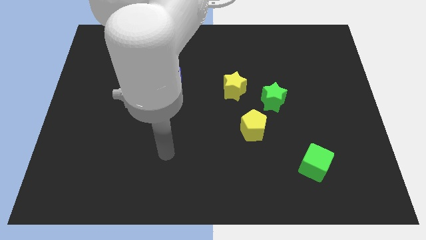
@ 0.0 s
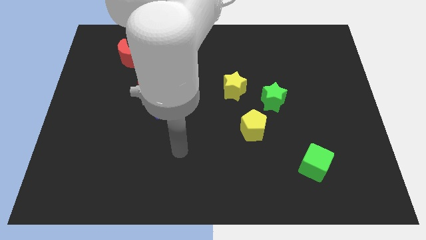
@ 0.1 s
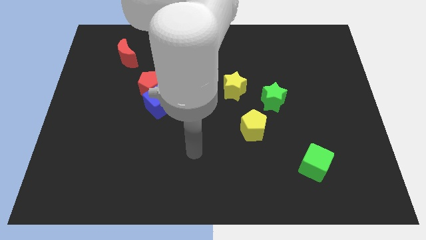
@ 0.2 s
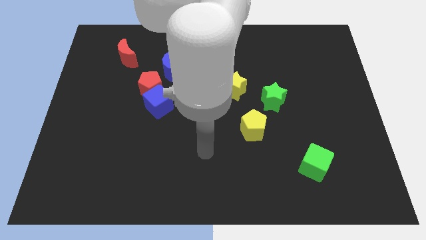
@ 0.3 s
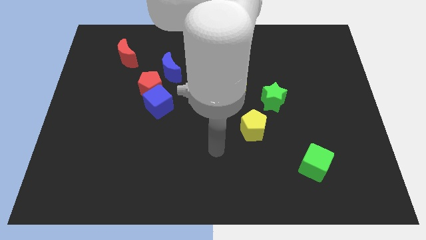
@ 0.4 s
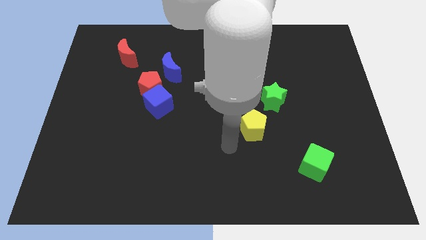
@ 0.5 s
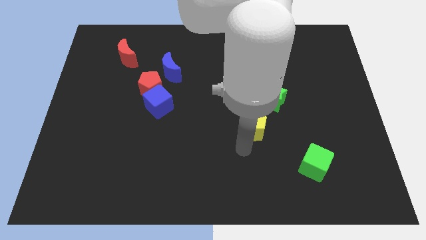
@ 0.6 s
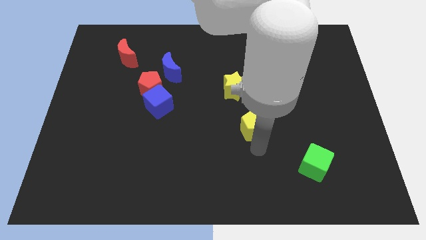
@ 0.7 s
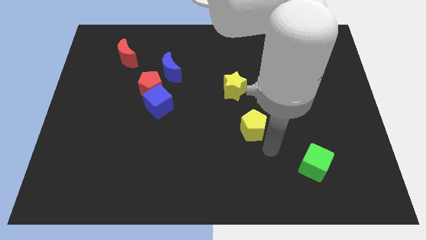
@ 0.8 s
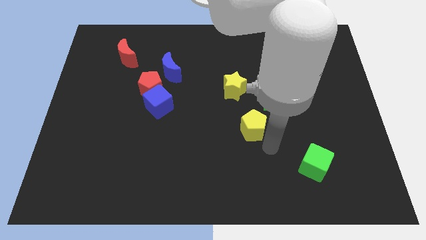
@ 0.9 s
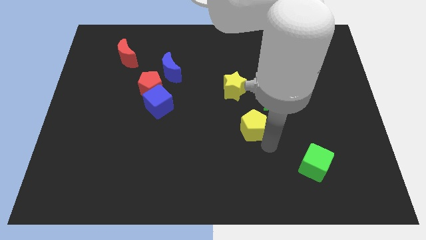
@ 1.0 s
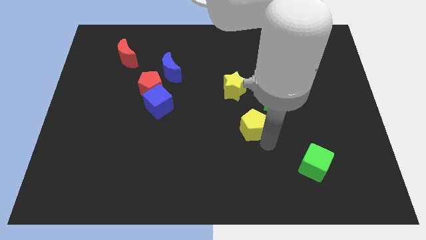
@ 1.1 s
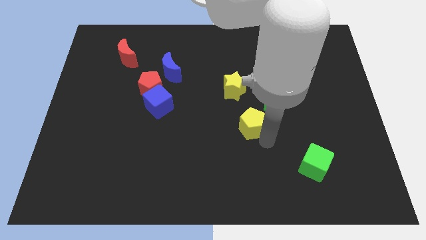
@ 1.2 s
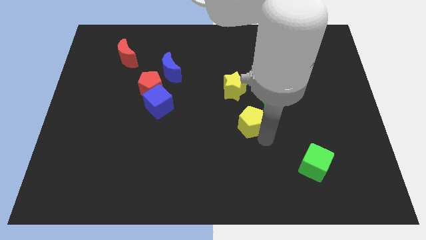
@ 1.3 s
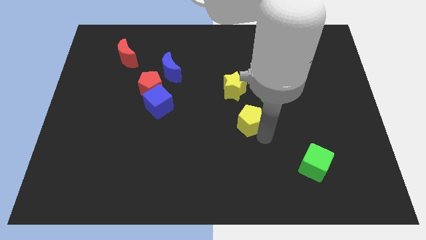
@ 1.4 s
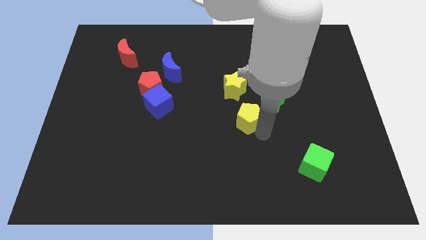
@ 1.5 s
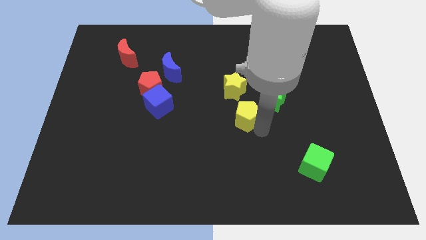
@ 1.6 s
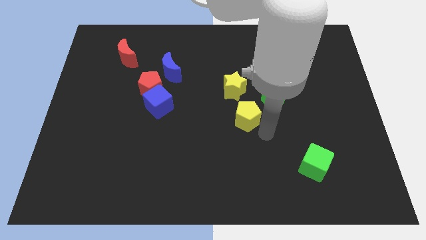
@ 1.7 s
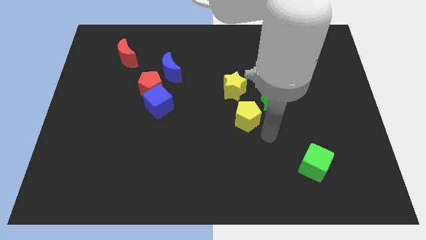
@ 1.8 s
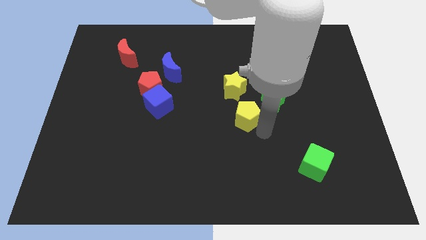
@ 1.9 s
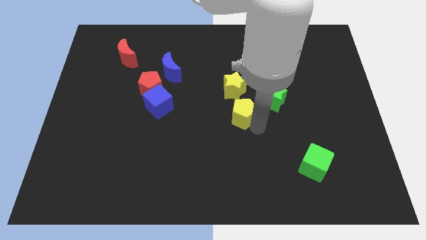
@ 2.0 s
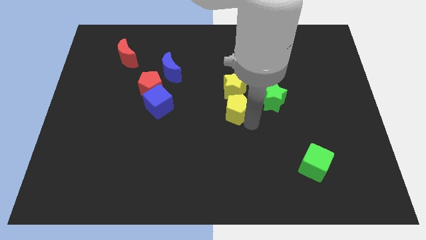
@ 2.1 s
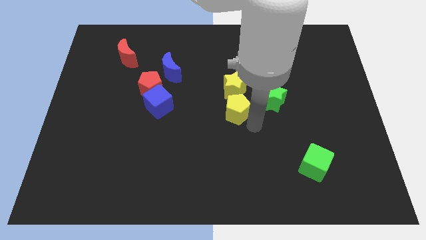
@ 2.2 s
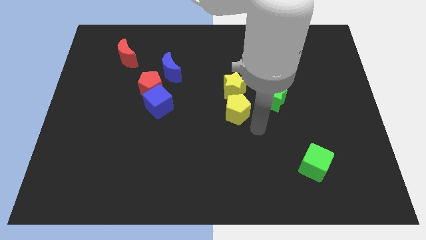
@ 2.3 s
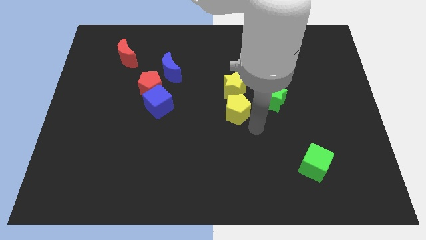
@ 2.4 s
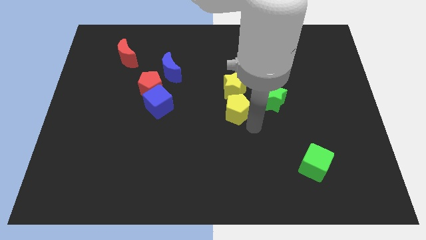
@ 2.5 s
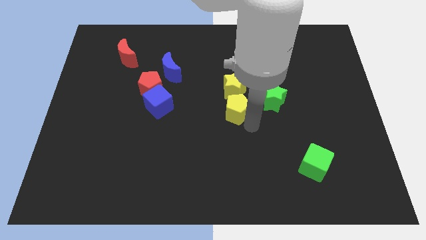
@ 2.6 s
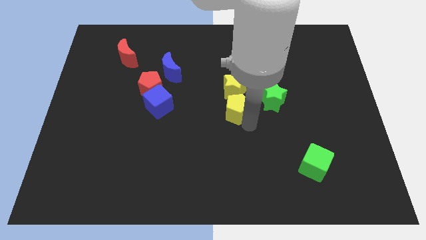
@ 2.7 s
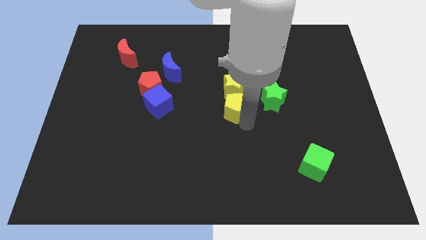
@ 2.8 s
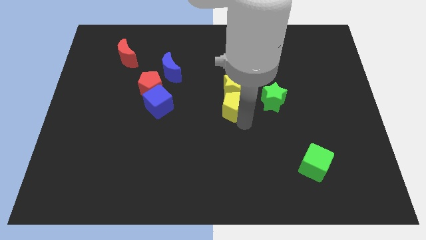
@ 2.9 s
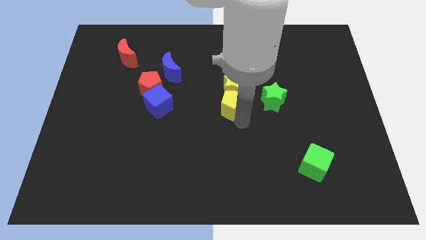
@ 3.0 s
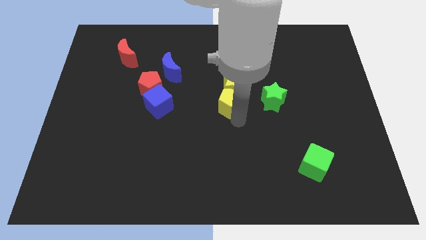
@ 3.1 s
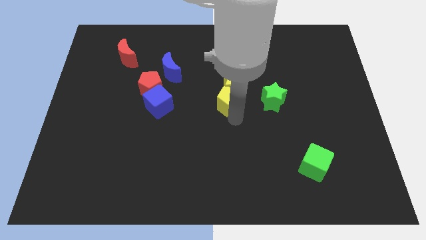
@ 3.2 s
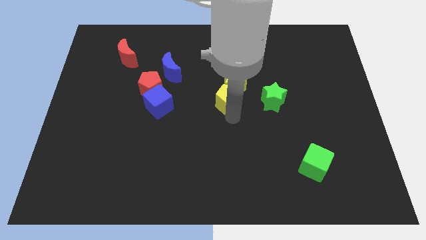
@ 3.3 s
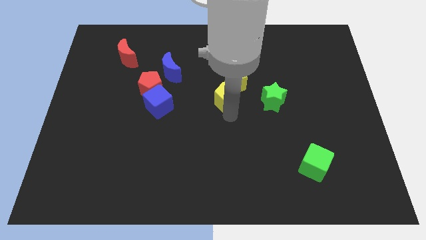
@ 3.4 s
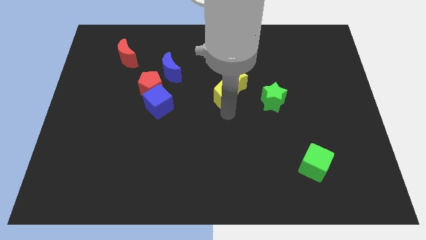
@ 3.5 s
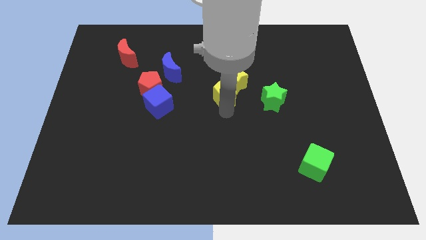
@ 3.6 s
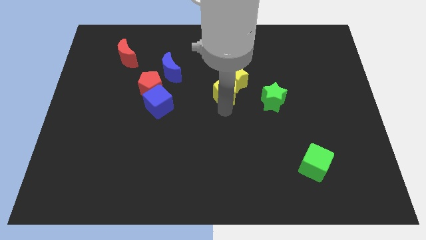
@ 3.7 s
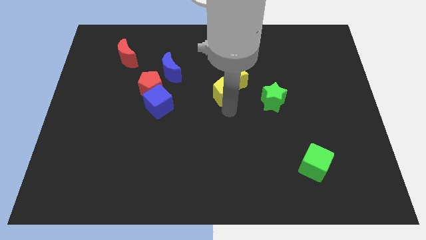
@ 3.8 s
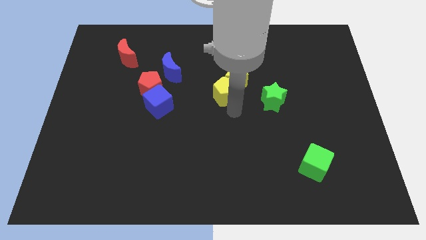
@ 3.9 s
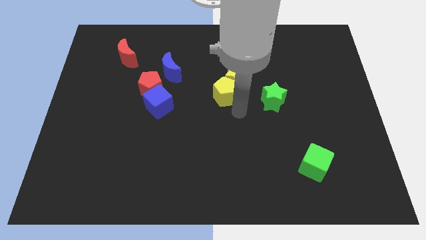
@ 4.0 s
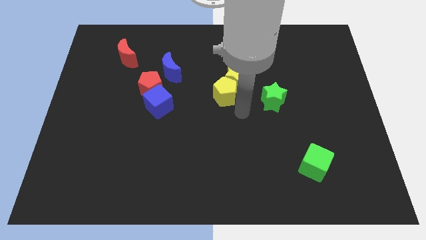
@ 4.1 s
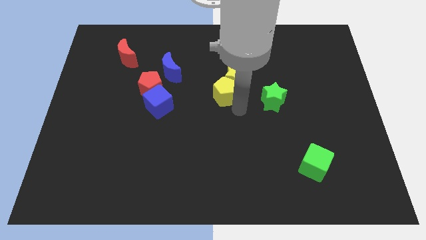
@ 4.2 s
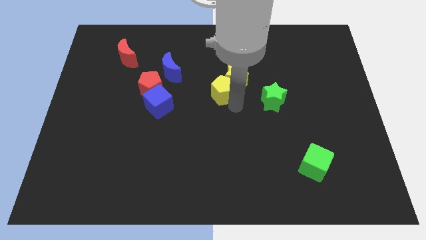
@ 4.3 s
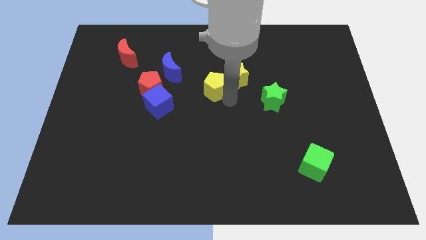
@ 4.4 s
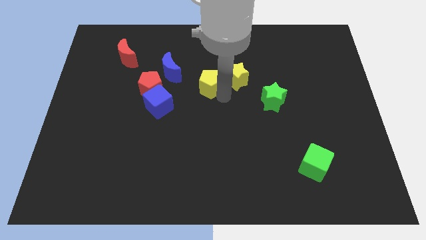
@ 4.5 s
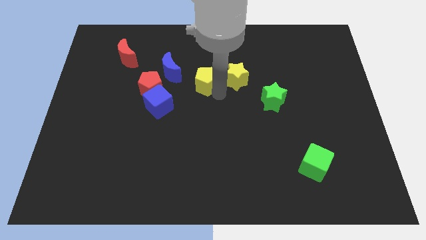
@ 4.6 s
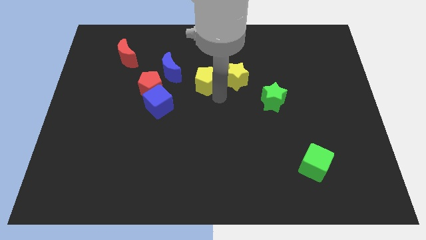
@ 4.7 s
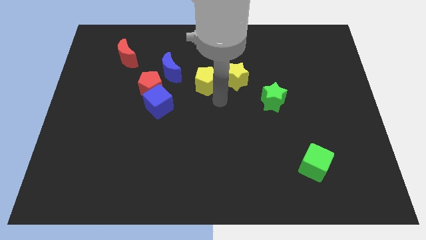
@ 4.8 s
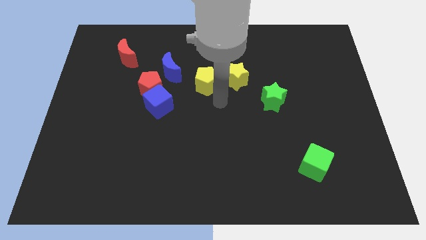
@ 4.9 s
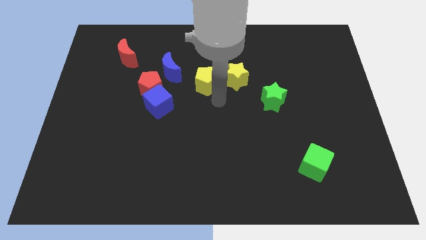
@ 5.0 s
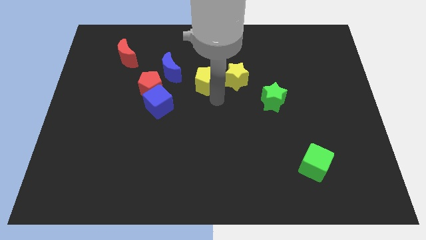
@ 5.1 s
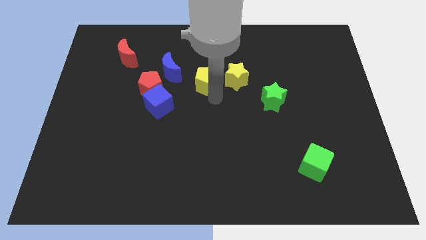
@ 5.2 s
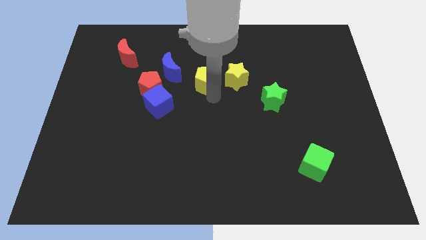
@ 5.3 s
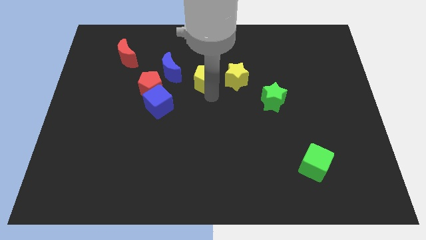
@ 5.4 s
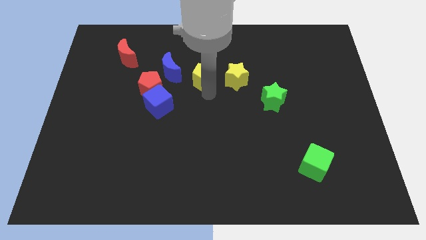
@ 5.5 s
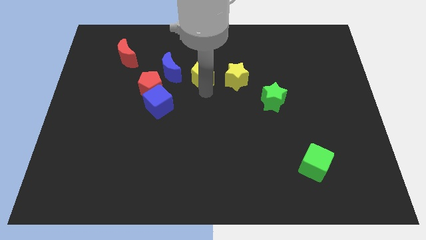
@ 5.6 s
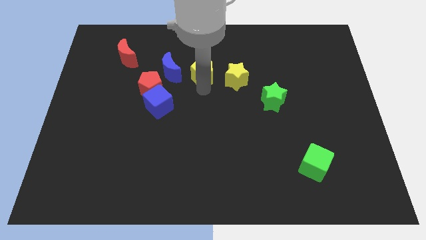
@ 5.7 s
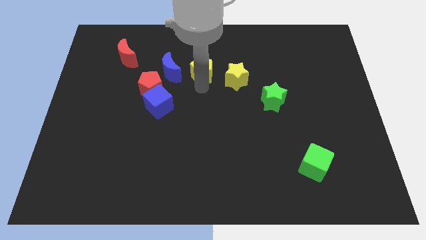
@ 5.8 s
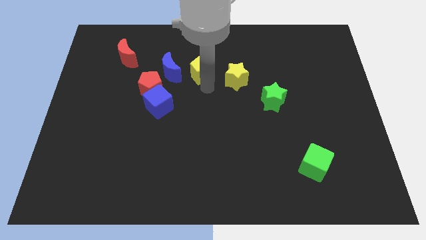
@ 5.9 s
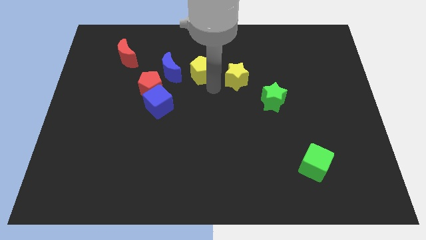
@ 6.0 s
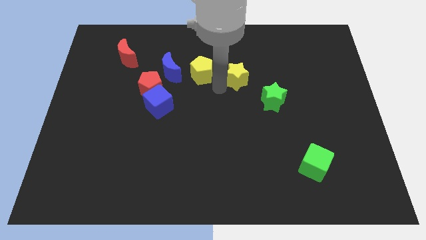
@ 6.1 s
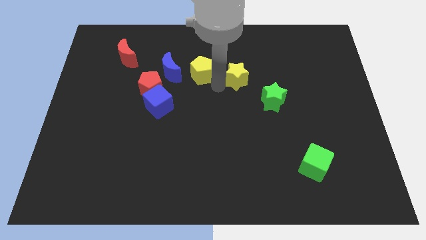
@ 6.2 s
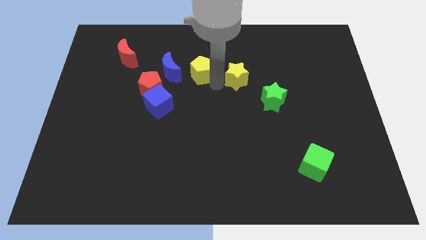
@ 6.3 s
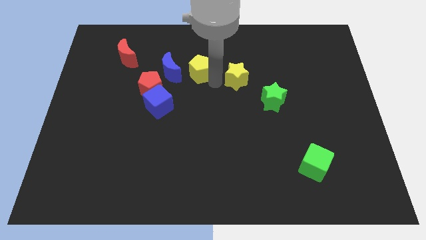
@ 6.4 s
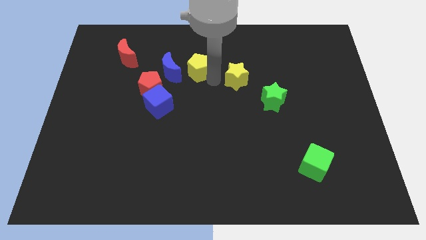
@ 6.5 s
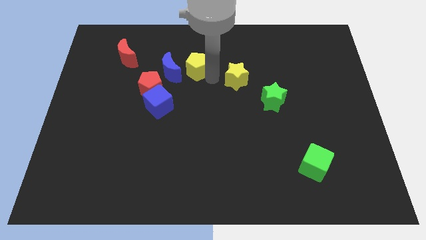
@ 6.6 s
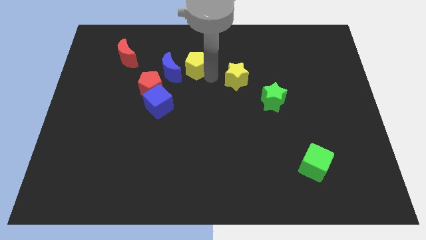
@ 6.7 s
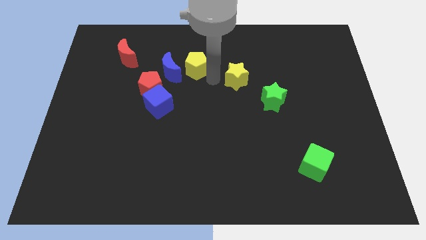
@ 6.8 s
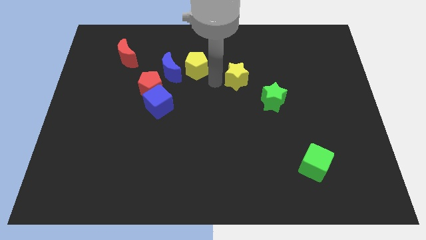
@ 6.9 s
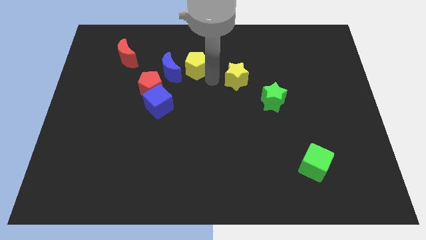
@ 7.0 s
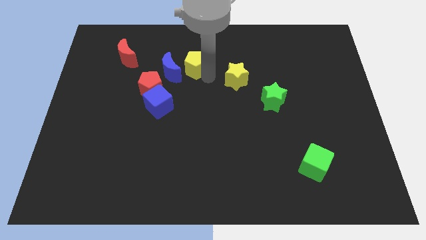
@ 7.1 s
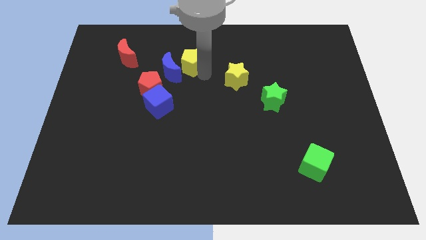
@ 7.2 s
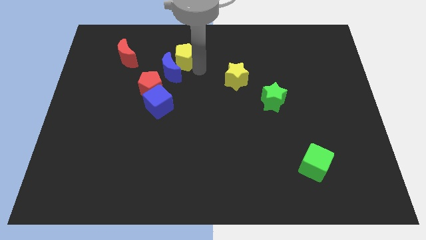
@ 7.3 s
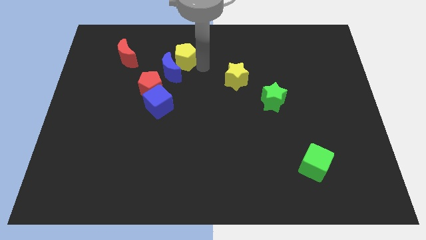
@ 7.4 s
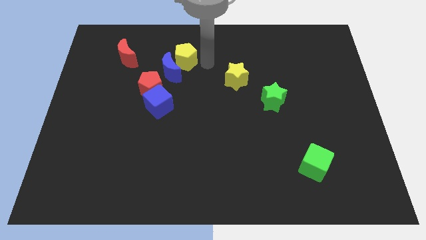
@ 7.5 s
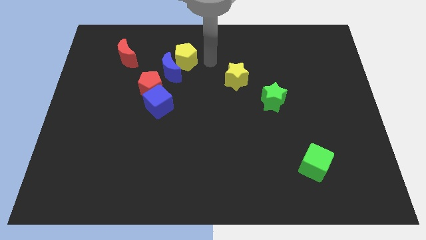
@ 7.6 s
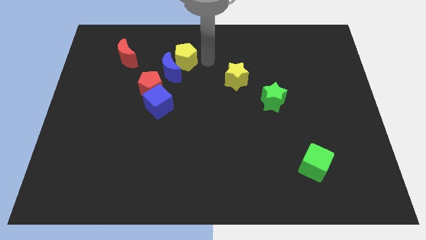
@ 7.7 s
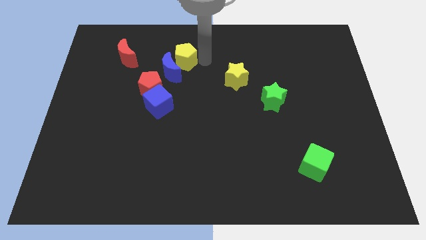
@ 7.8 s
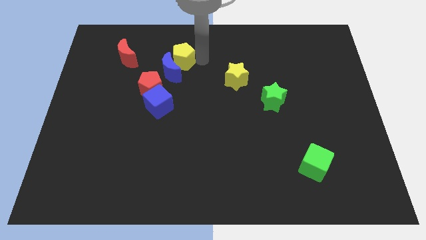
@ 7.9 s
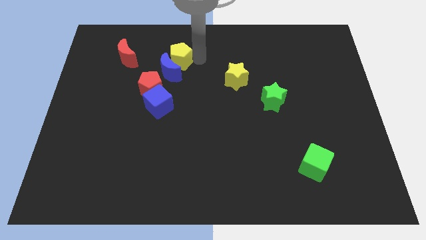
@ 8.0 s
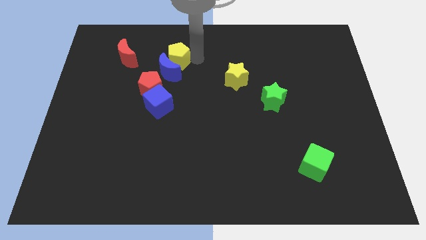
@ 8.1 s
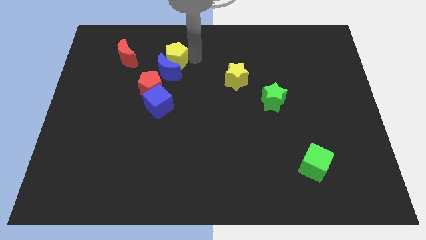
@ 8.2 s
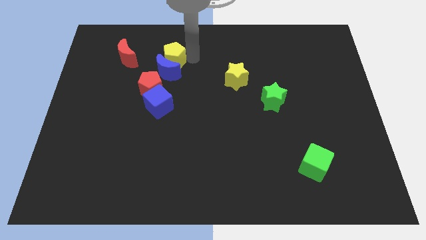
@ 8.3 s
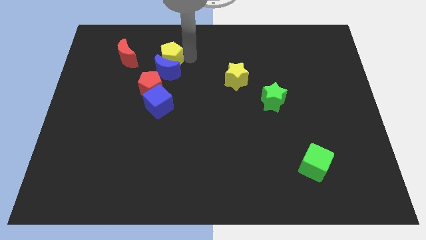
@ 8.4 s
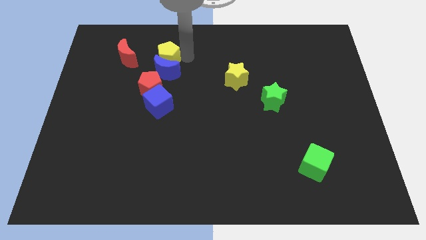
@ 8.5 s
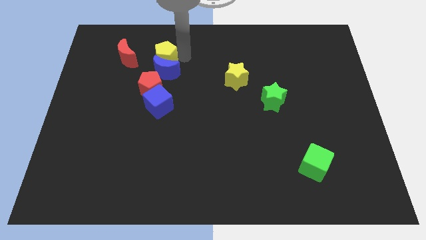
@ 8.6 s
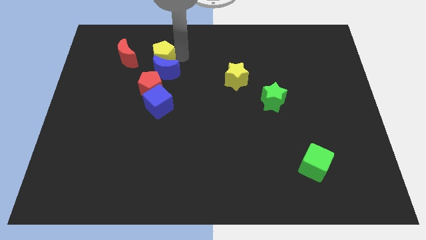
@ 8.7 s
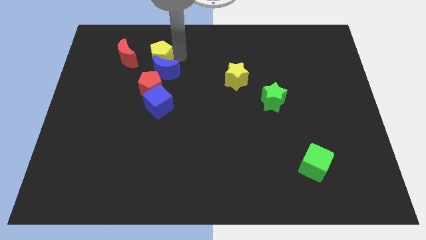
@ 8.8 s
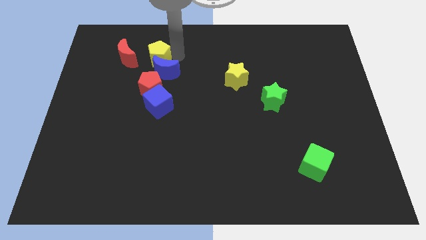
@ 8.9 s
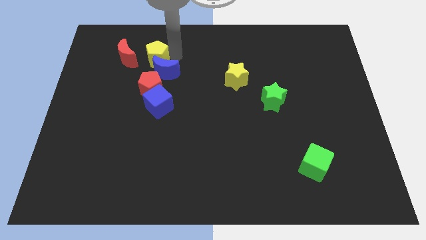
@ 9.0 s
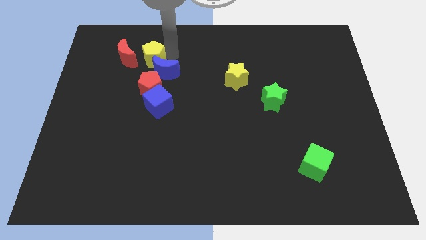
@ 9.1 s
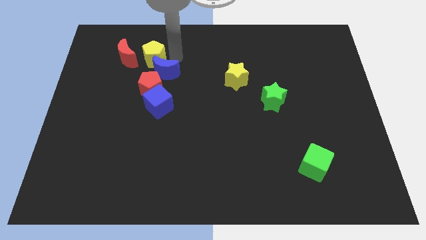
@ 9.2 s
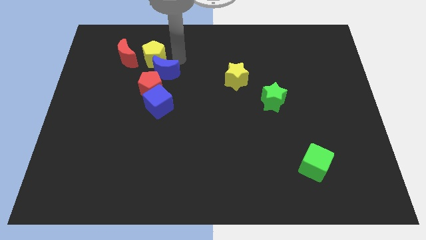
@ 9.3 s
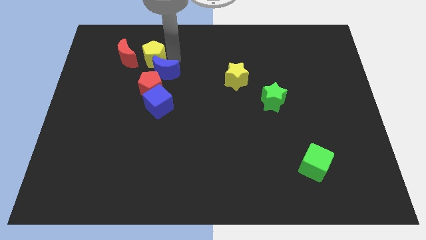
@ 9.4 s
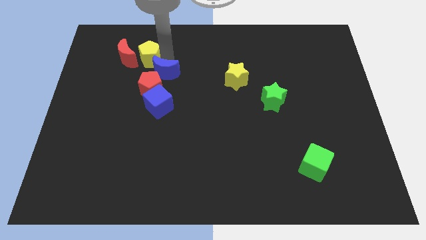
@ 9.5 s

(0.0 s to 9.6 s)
slide the yellow pentagon close to the red moon
